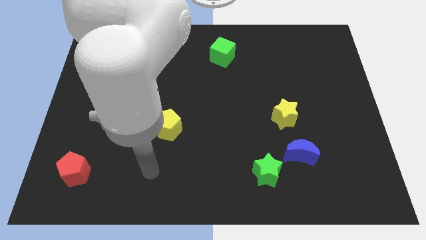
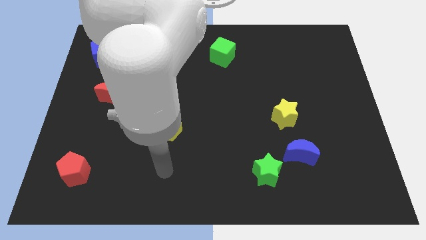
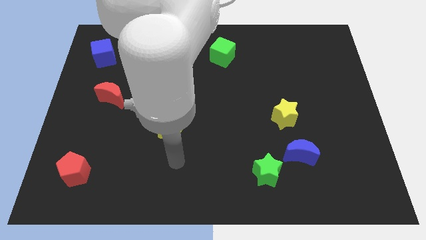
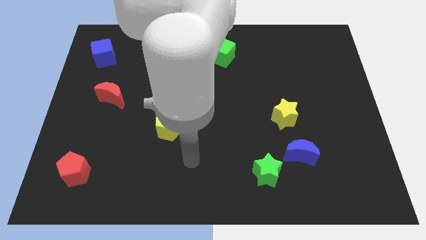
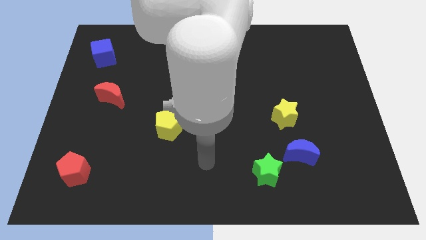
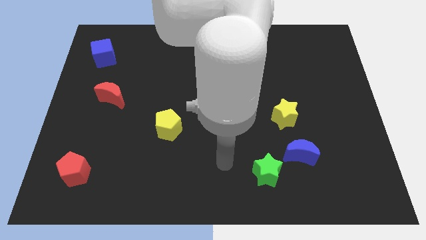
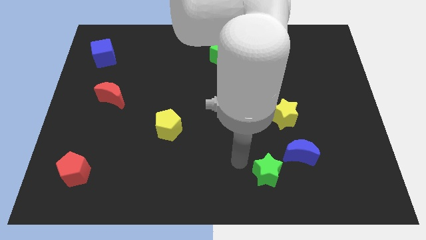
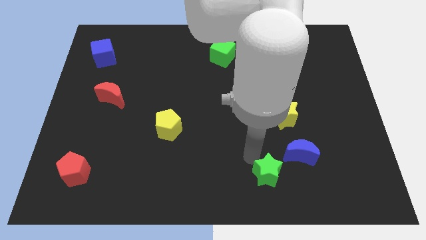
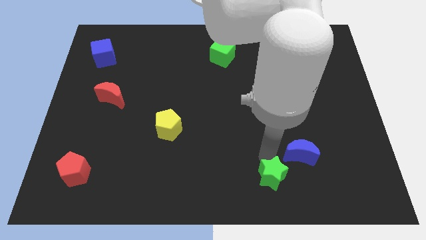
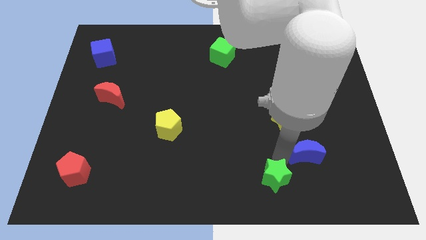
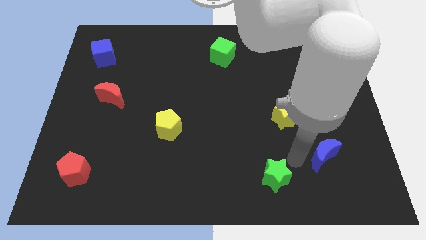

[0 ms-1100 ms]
pull the green star apart from the blue moon

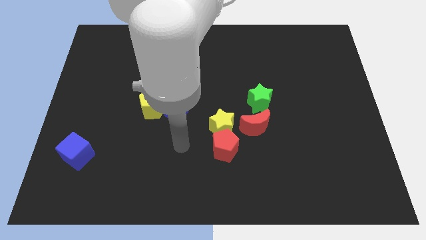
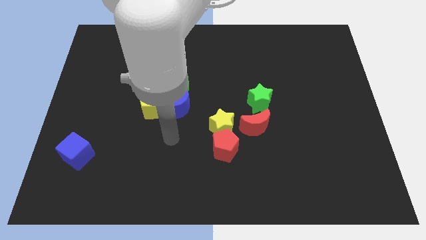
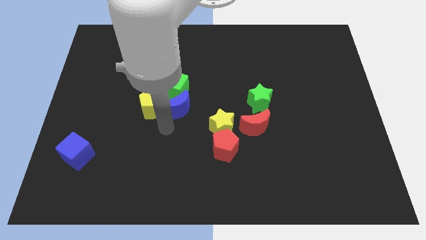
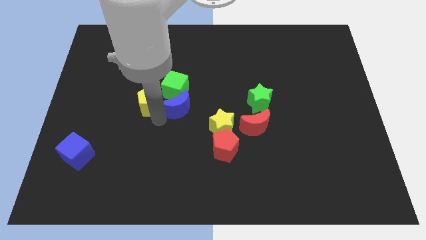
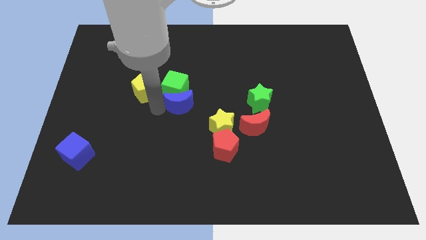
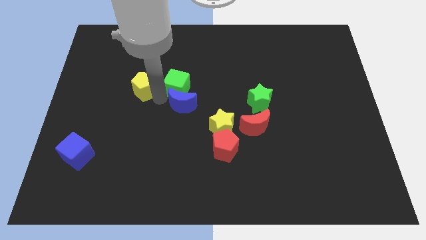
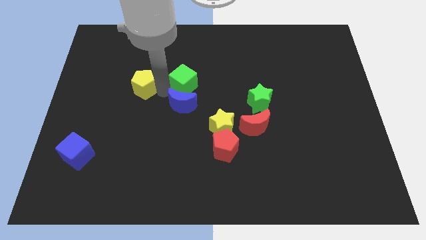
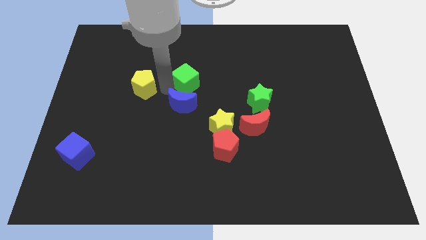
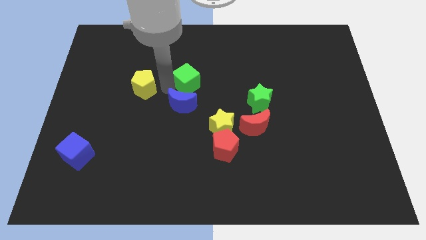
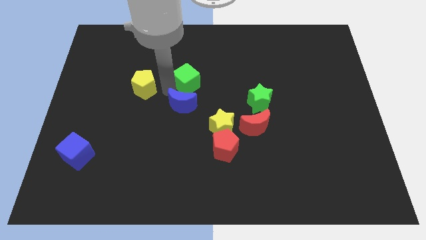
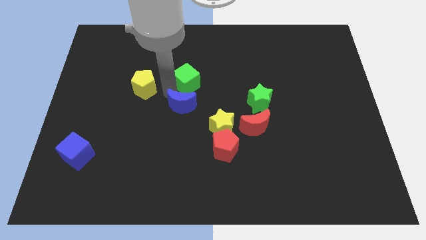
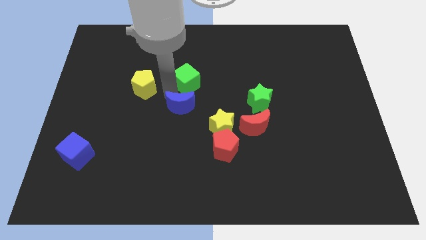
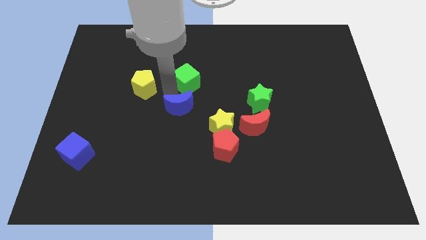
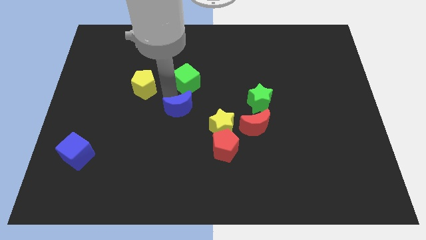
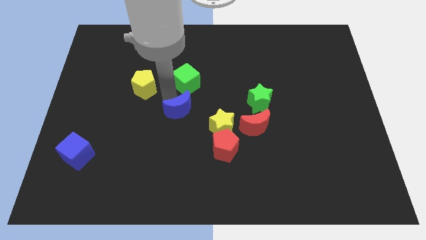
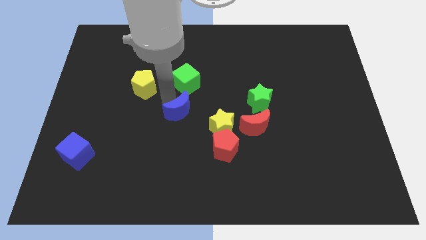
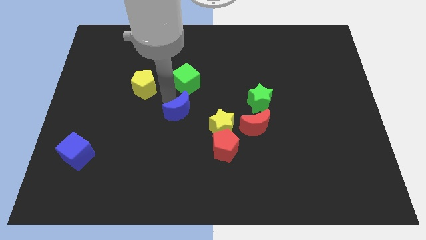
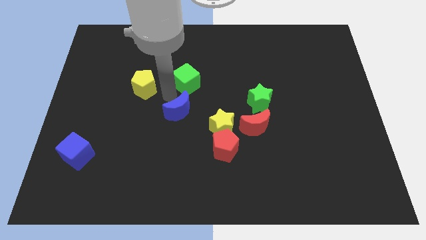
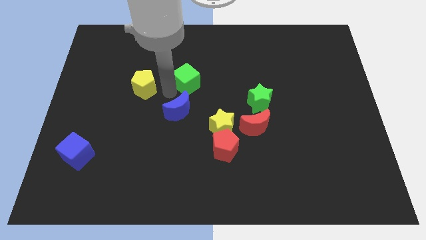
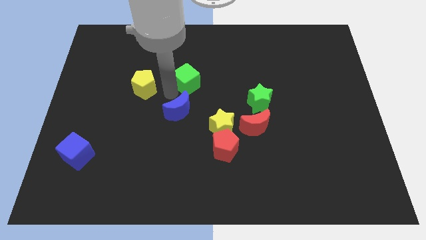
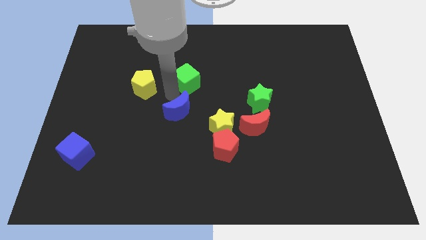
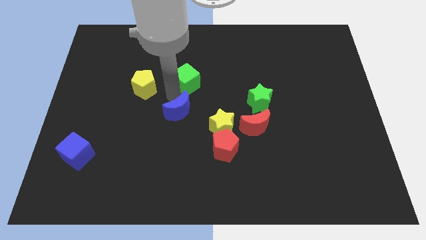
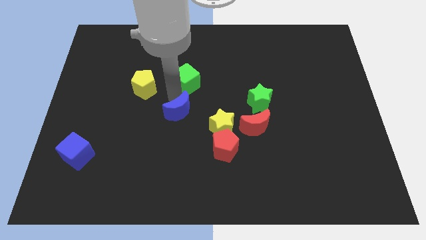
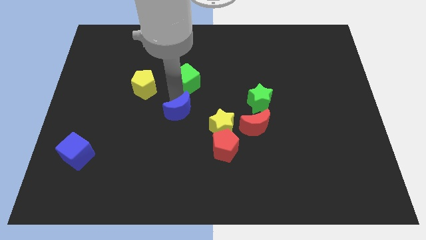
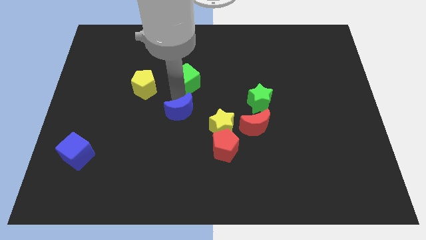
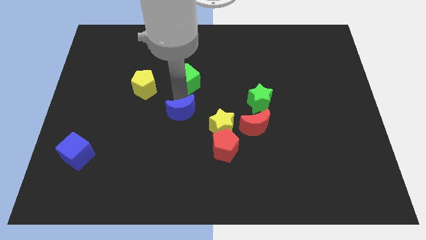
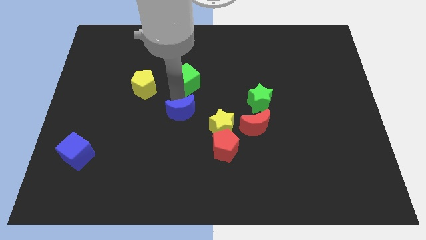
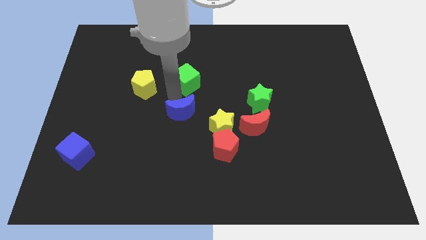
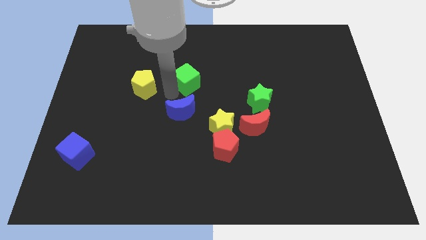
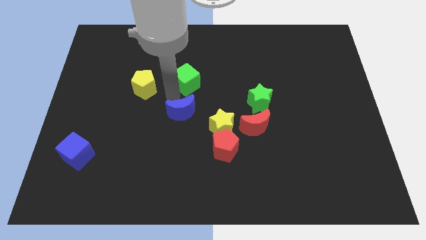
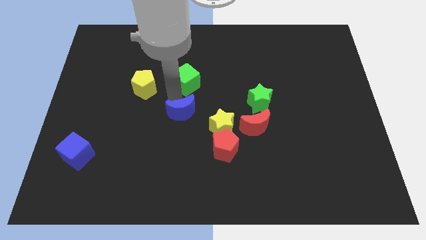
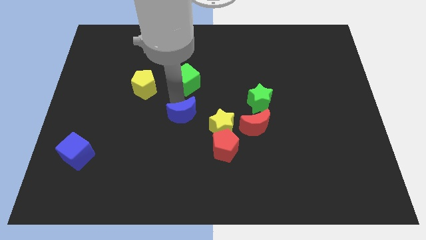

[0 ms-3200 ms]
separate the blue moon from the green cube and yellow pentagon

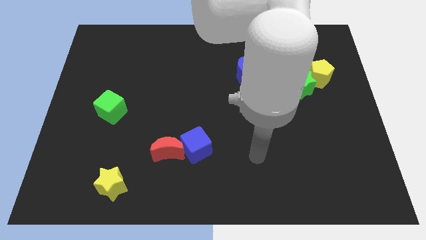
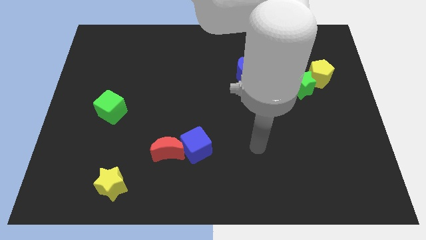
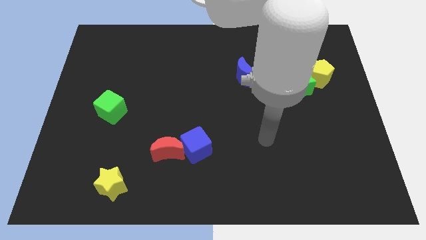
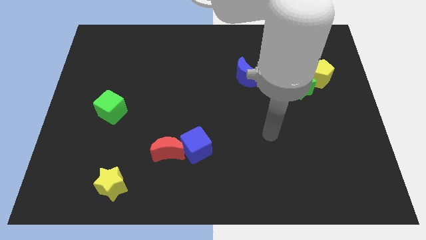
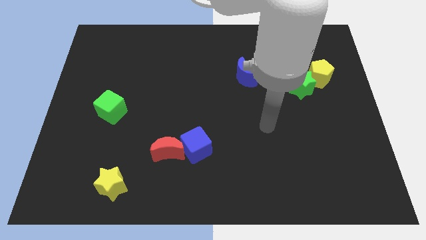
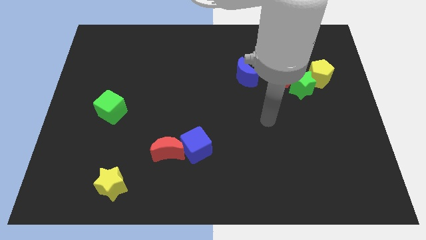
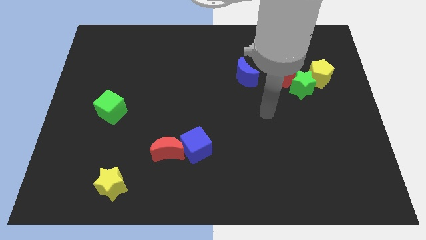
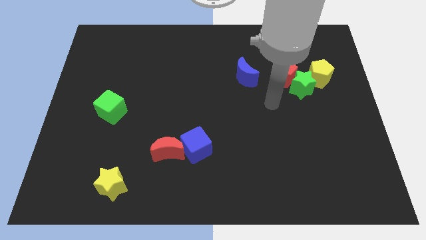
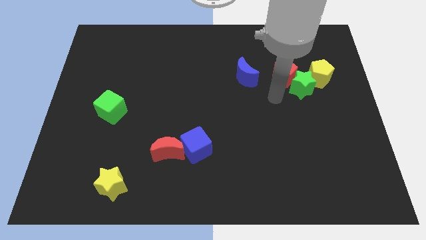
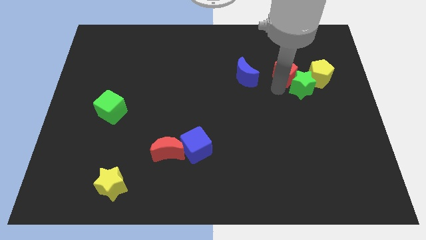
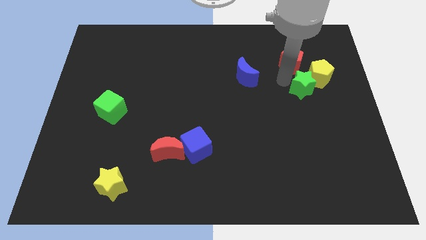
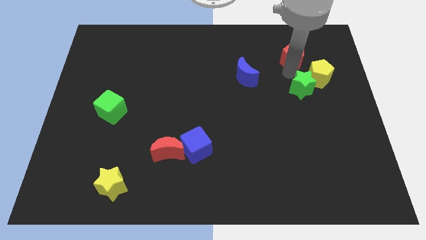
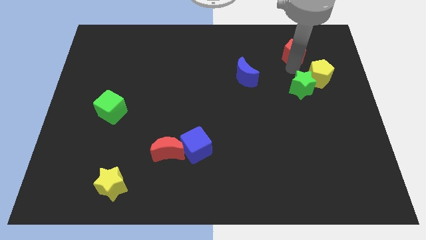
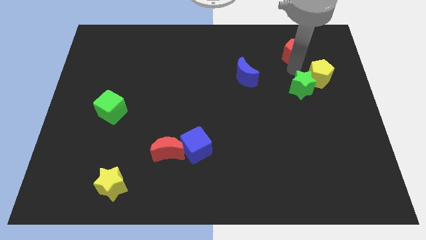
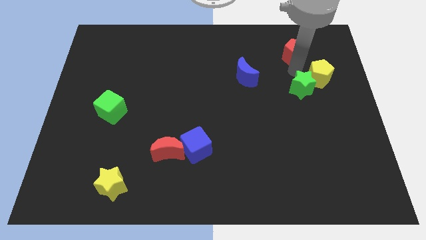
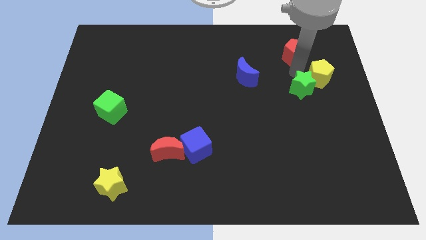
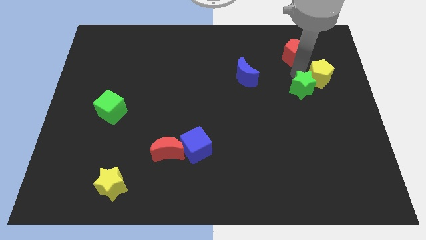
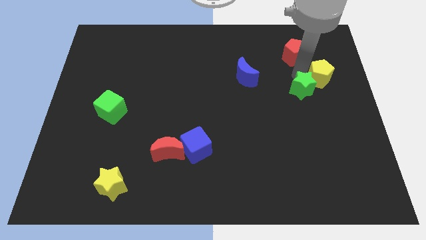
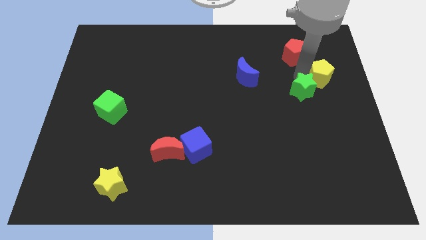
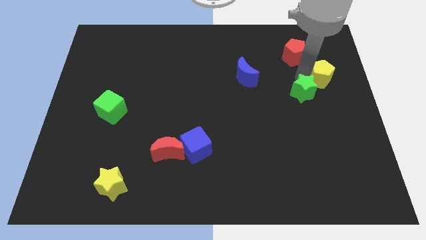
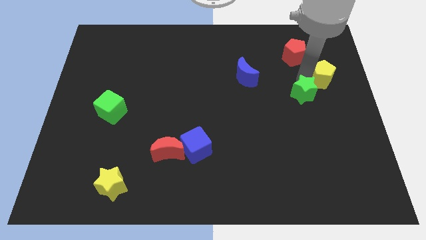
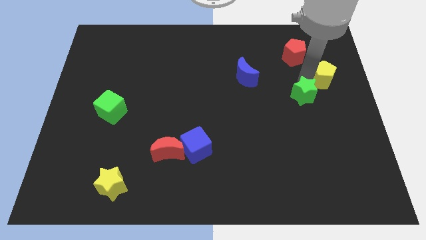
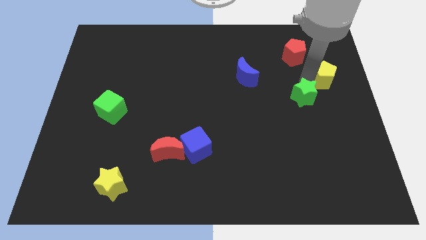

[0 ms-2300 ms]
pull the green star apart from the red pentagon and yellow pentagon

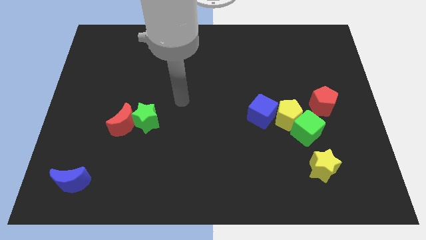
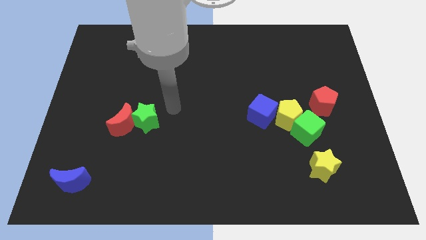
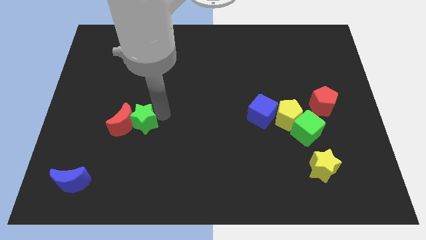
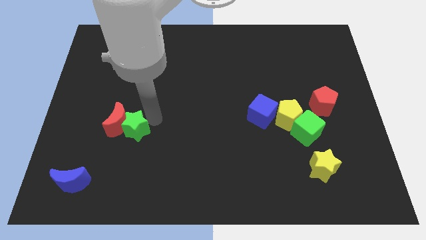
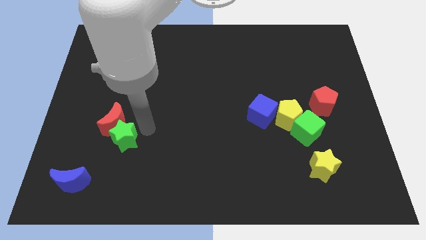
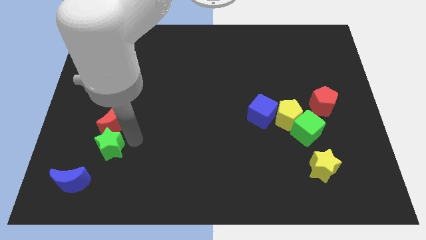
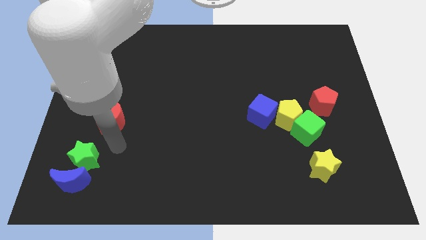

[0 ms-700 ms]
separate the red moon from the green star

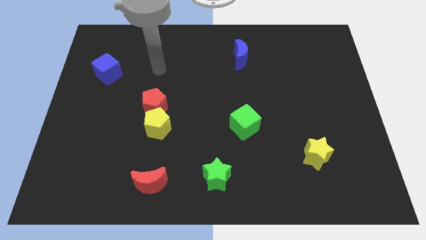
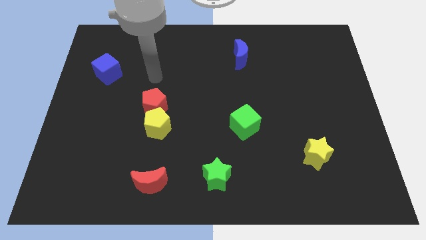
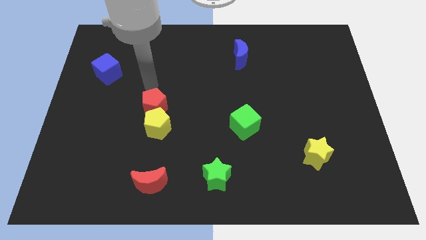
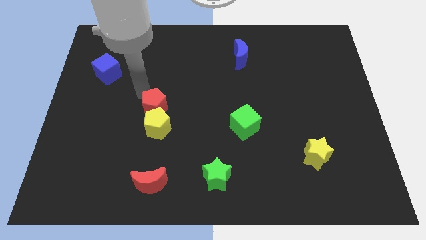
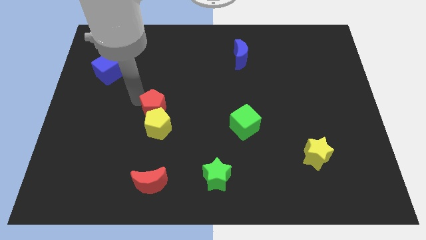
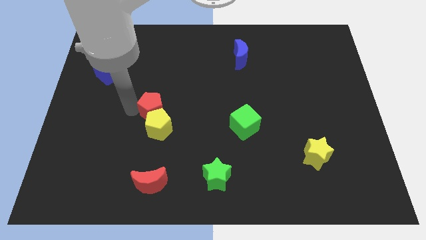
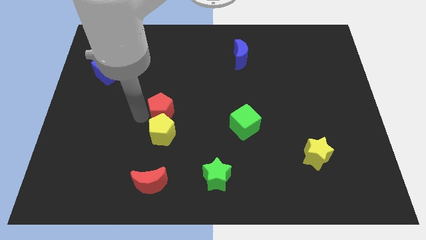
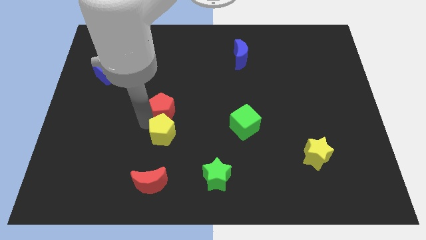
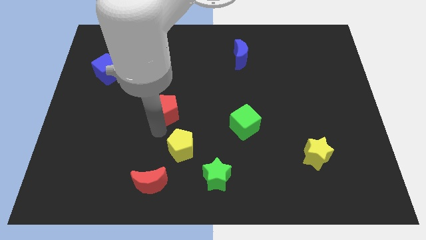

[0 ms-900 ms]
separate the red pentagon from the yellow pentagon

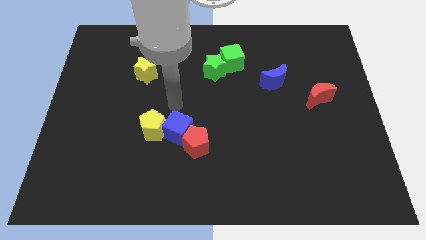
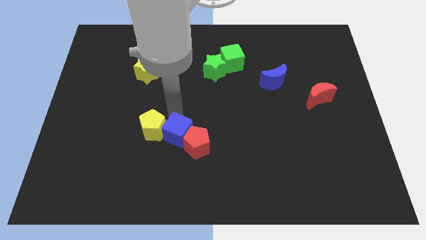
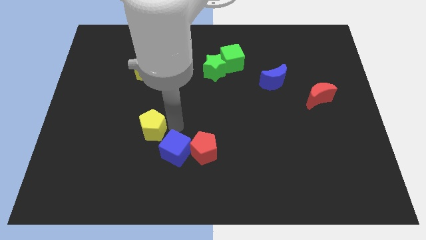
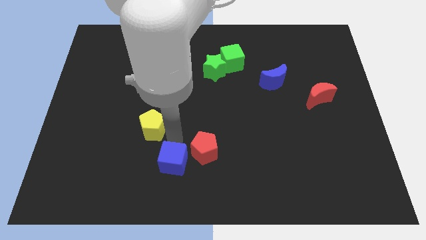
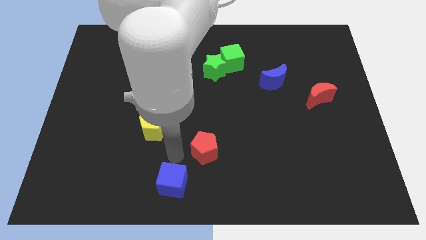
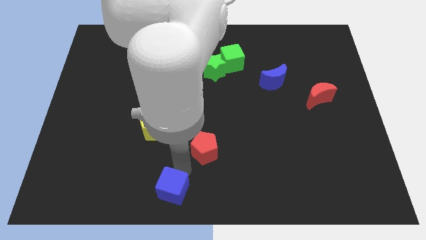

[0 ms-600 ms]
pull the red pentagon apart from the blue cube

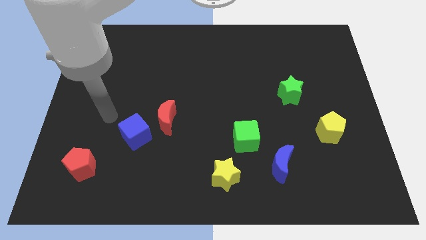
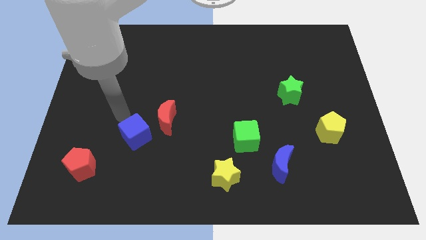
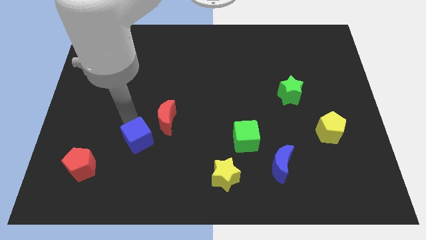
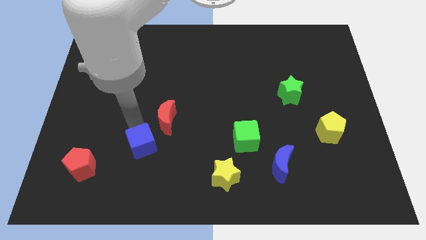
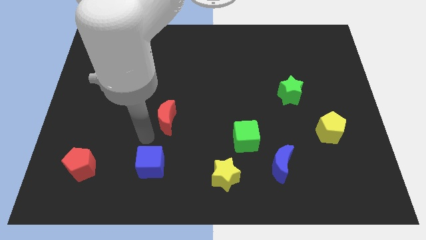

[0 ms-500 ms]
separate the red moon from the blue cube
